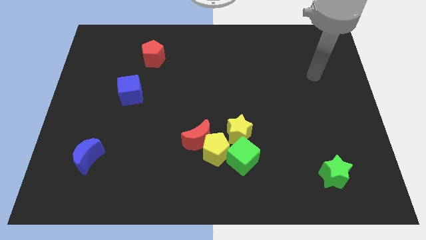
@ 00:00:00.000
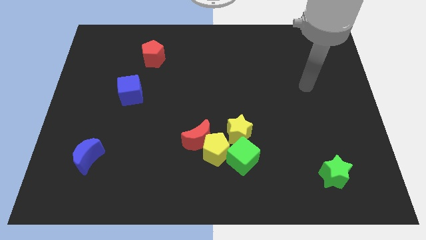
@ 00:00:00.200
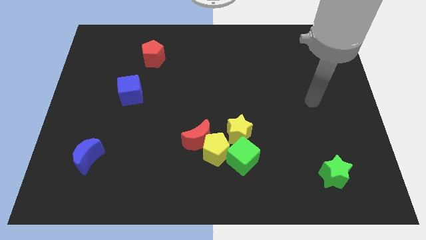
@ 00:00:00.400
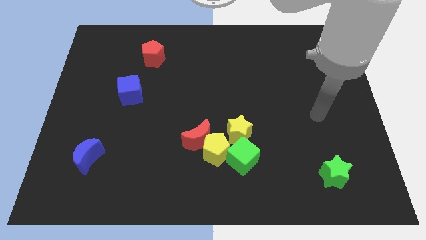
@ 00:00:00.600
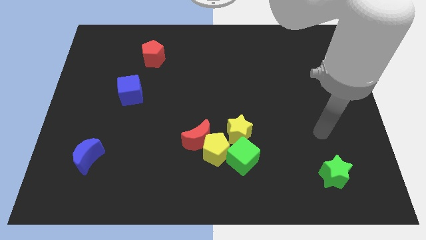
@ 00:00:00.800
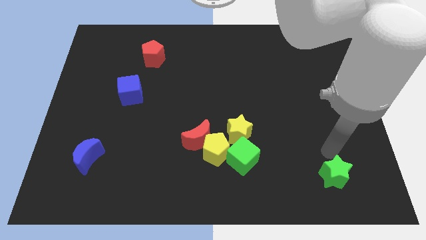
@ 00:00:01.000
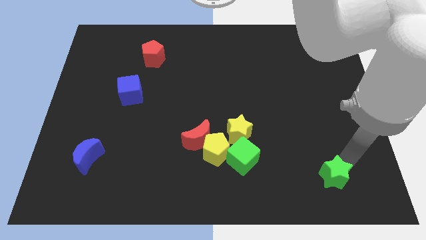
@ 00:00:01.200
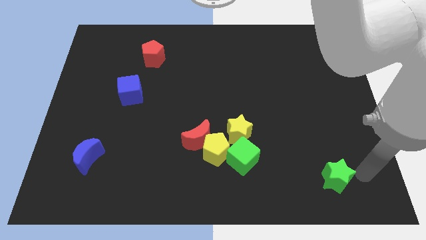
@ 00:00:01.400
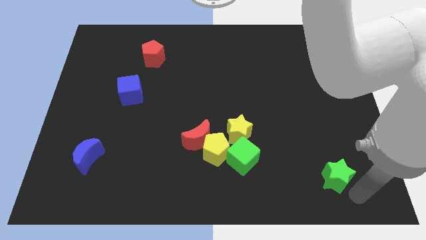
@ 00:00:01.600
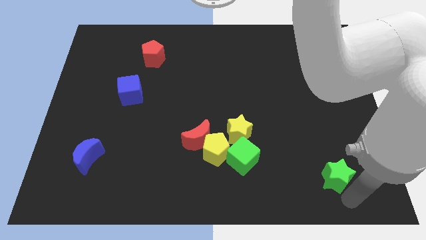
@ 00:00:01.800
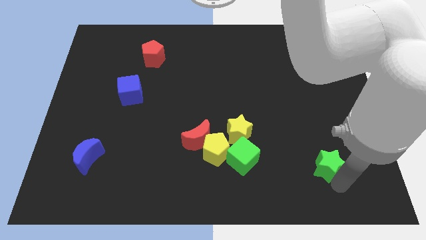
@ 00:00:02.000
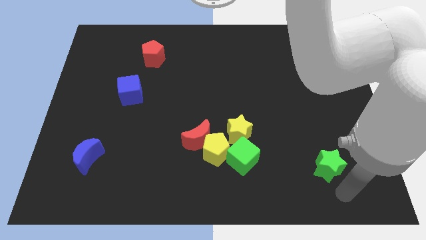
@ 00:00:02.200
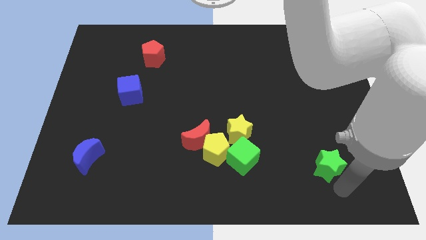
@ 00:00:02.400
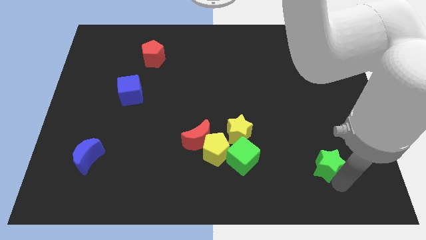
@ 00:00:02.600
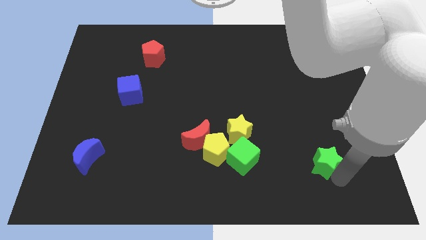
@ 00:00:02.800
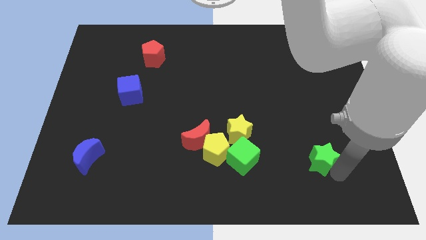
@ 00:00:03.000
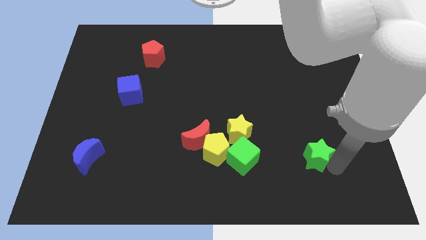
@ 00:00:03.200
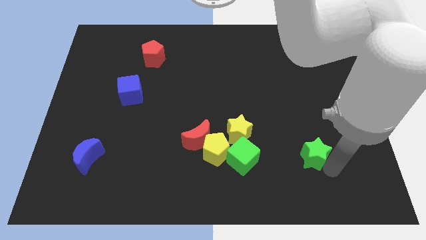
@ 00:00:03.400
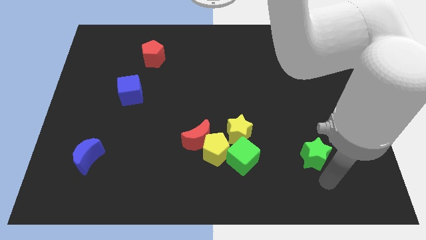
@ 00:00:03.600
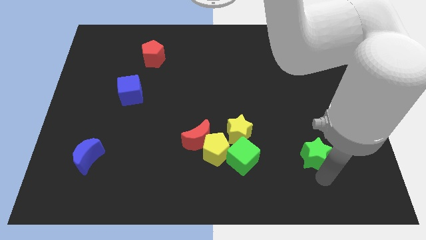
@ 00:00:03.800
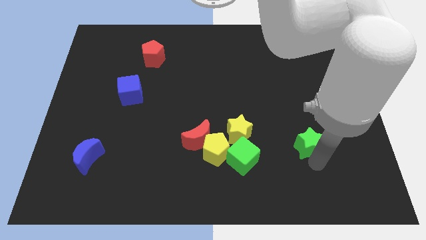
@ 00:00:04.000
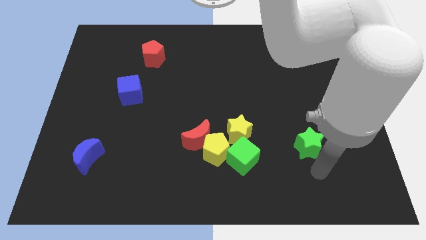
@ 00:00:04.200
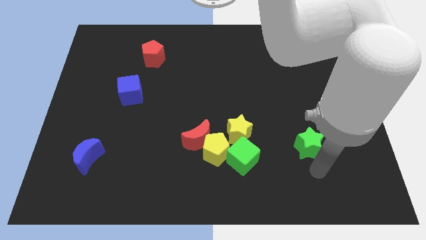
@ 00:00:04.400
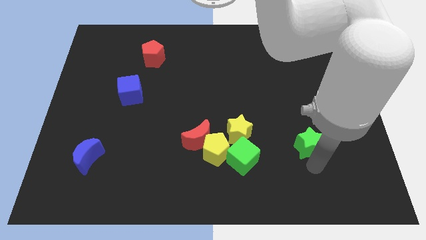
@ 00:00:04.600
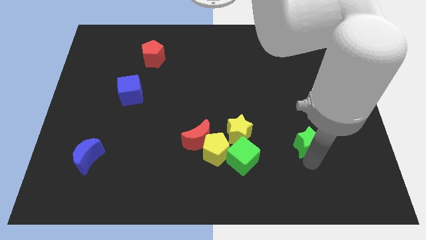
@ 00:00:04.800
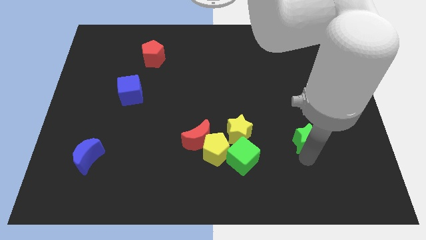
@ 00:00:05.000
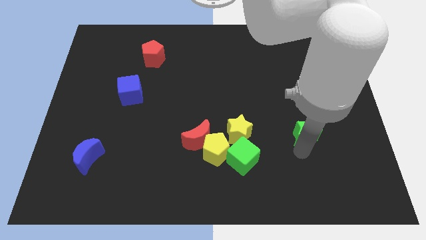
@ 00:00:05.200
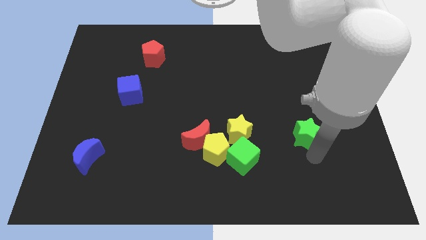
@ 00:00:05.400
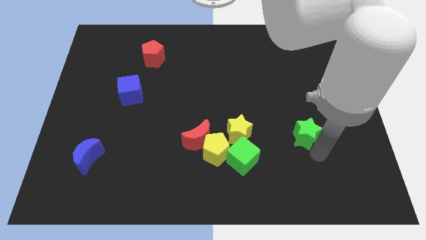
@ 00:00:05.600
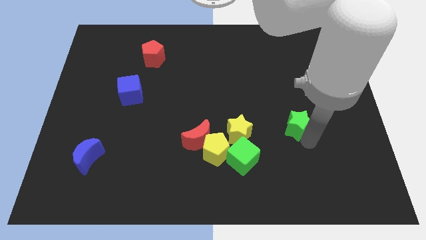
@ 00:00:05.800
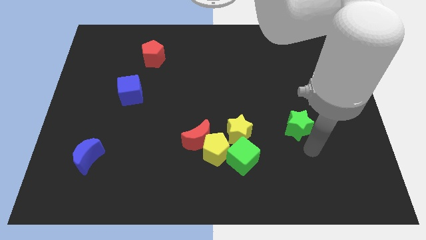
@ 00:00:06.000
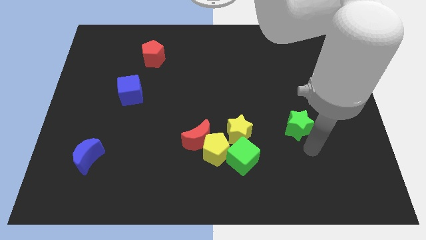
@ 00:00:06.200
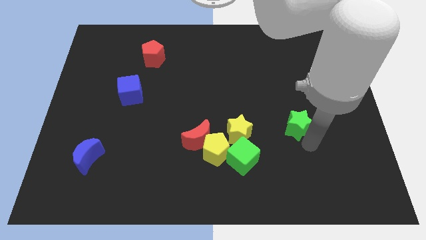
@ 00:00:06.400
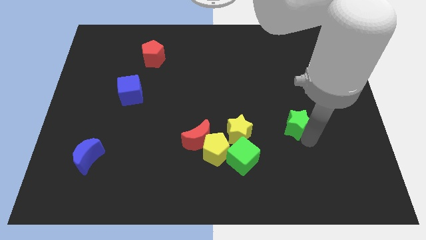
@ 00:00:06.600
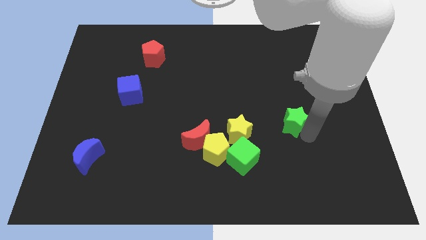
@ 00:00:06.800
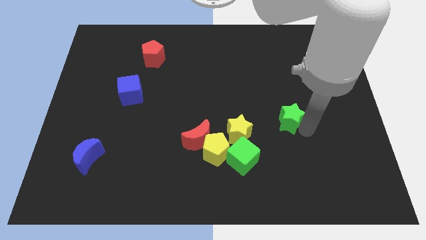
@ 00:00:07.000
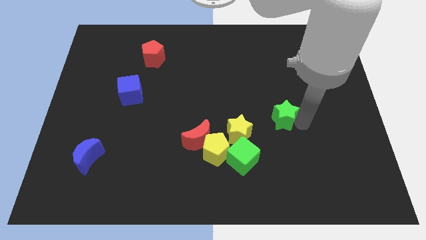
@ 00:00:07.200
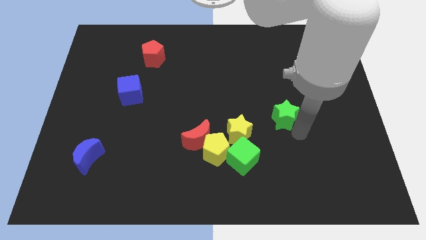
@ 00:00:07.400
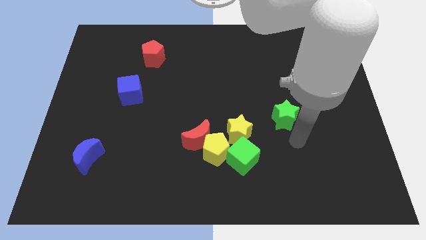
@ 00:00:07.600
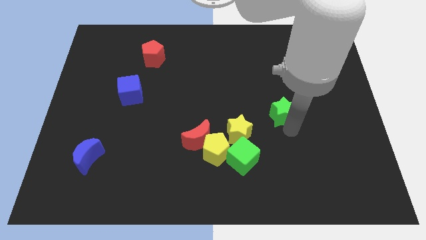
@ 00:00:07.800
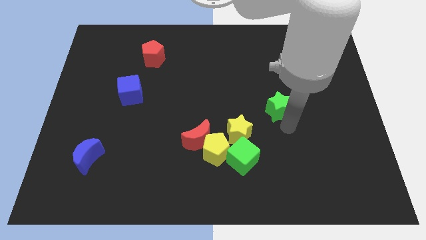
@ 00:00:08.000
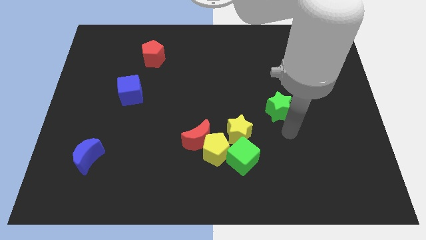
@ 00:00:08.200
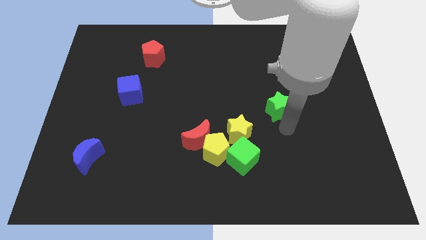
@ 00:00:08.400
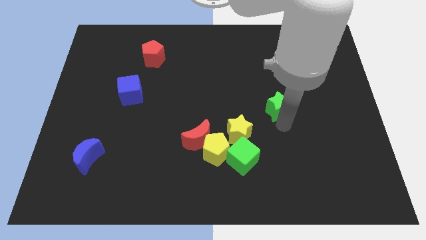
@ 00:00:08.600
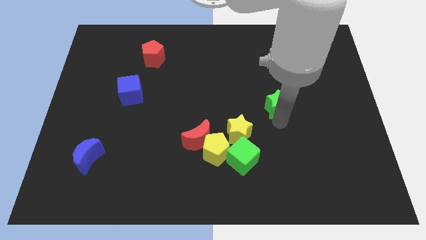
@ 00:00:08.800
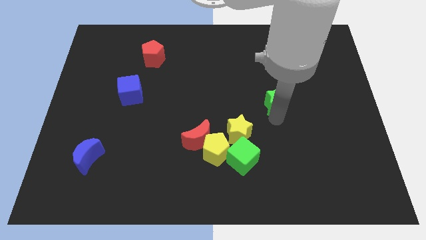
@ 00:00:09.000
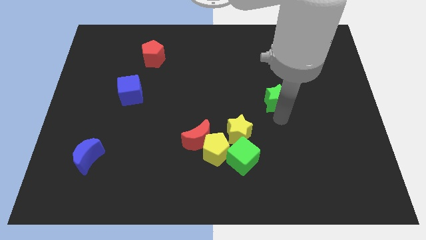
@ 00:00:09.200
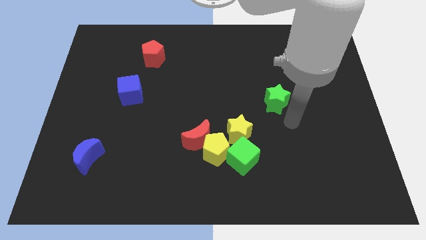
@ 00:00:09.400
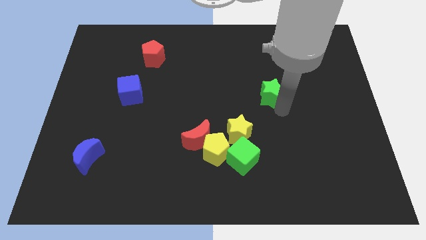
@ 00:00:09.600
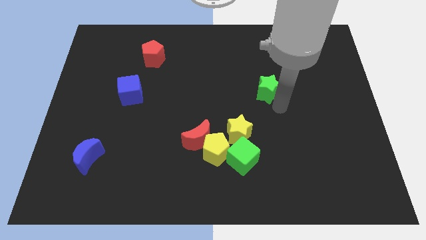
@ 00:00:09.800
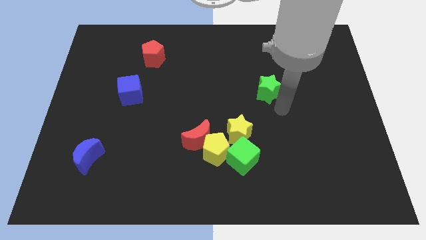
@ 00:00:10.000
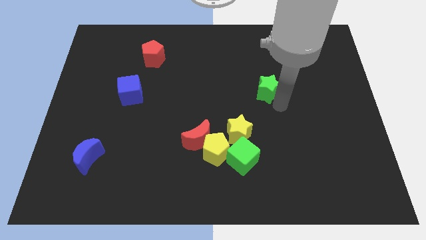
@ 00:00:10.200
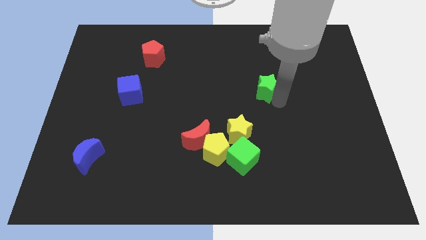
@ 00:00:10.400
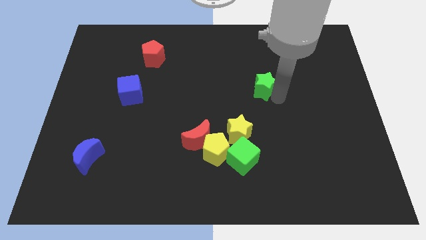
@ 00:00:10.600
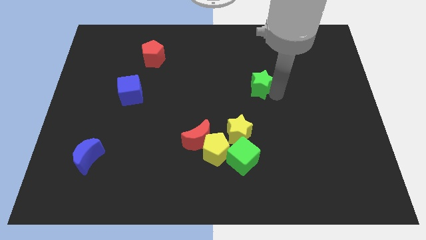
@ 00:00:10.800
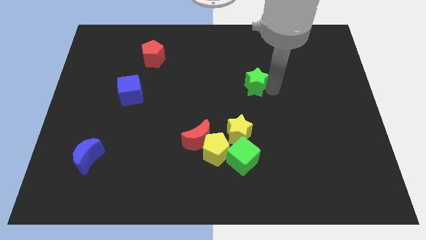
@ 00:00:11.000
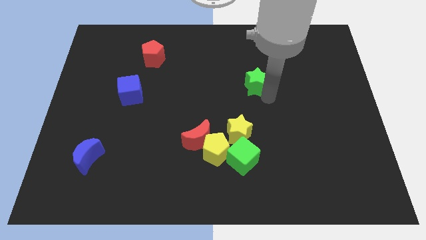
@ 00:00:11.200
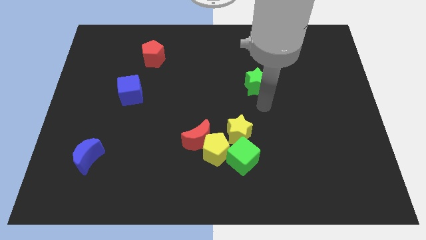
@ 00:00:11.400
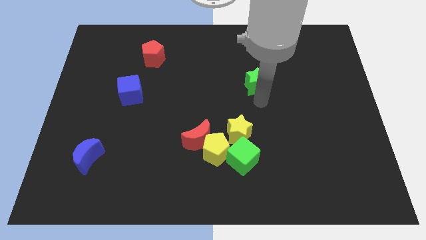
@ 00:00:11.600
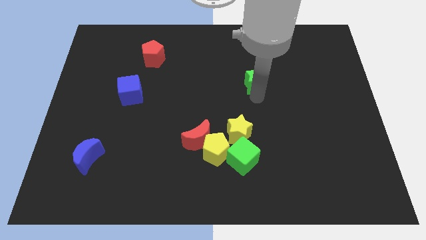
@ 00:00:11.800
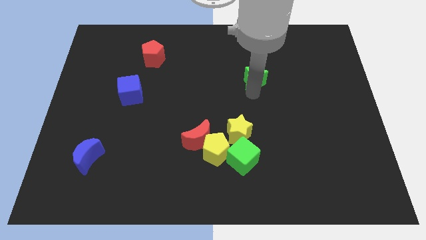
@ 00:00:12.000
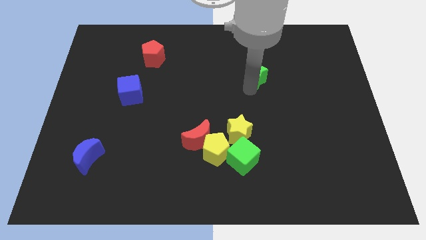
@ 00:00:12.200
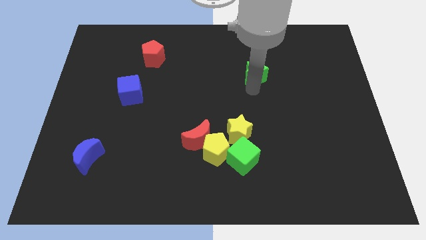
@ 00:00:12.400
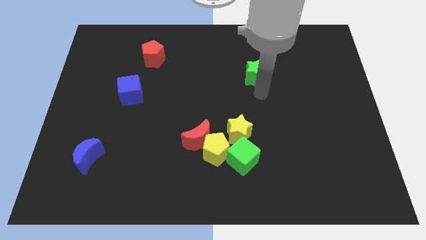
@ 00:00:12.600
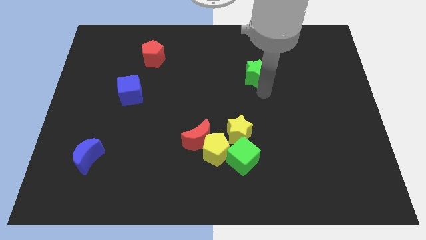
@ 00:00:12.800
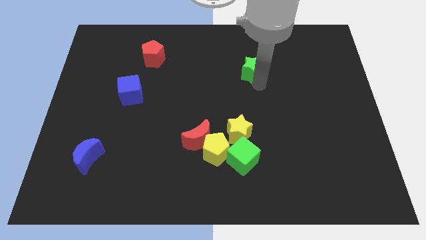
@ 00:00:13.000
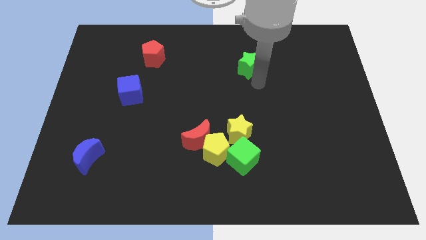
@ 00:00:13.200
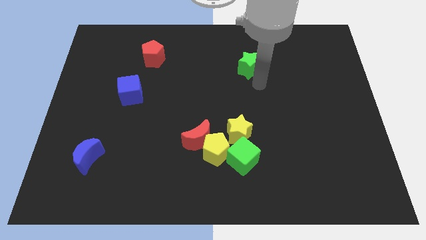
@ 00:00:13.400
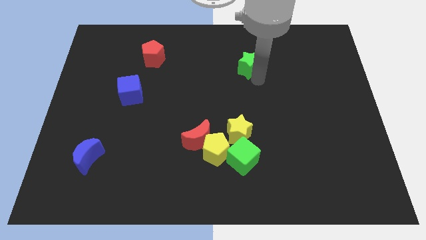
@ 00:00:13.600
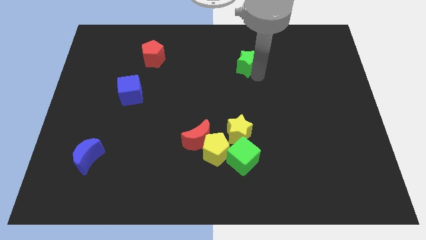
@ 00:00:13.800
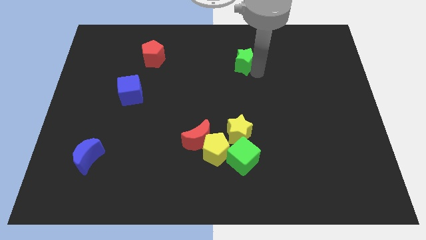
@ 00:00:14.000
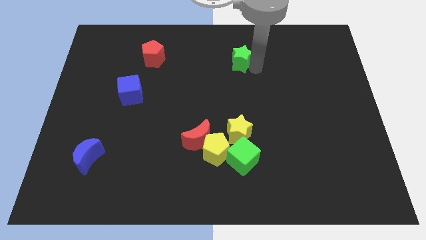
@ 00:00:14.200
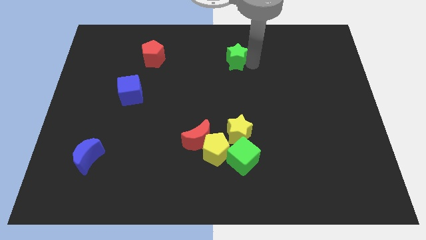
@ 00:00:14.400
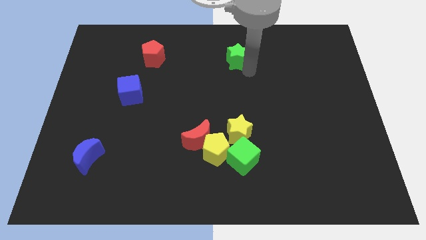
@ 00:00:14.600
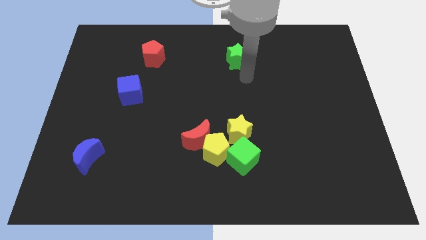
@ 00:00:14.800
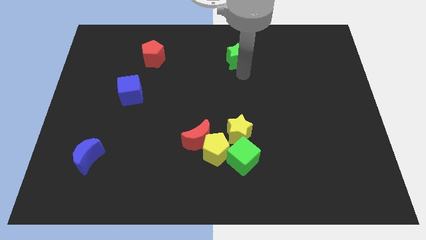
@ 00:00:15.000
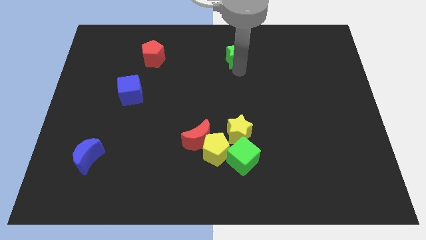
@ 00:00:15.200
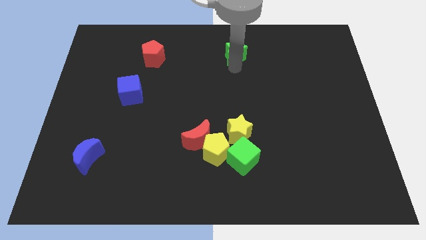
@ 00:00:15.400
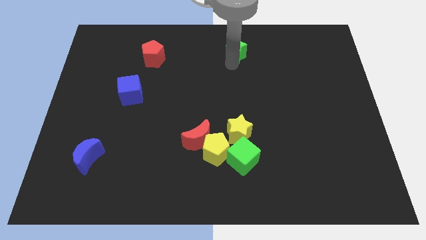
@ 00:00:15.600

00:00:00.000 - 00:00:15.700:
put the green star to the top side
